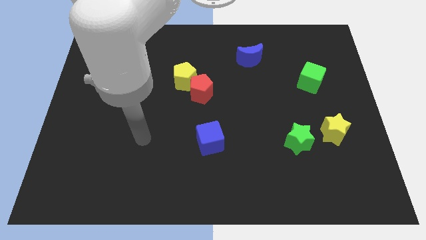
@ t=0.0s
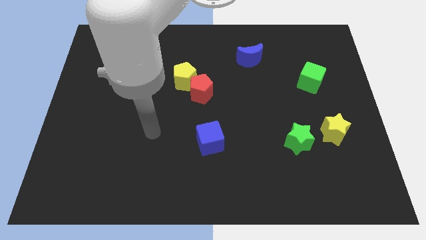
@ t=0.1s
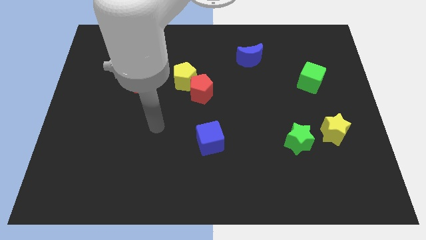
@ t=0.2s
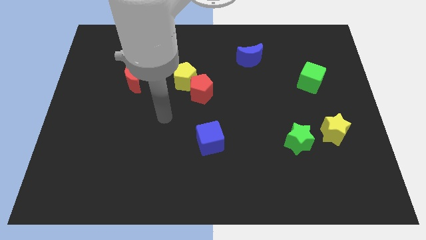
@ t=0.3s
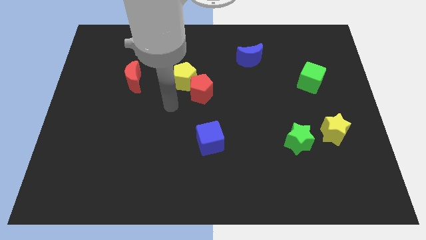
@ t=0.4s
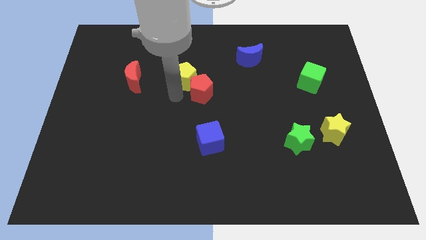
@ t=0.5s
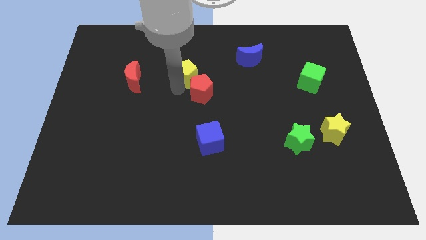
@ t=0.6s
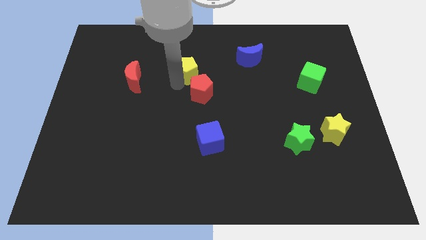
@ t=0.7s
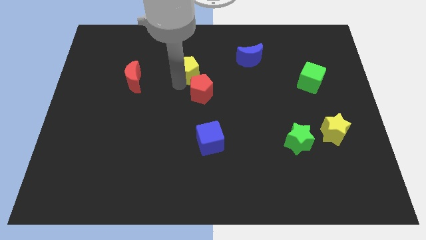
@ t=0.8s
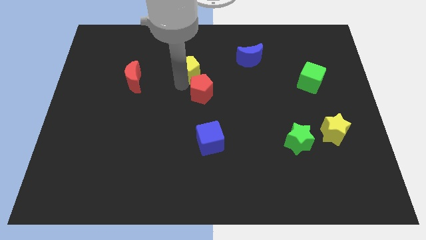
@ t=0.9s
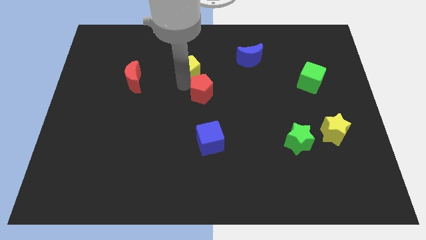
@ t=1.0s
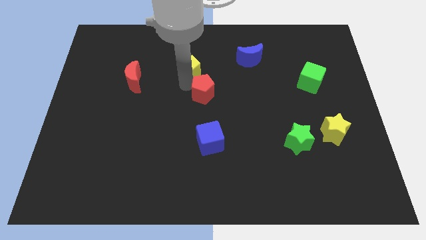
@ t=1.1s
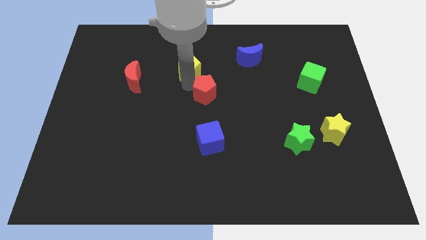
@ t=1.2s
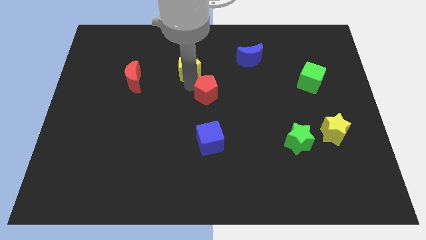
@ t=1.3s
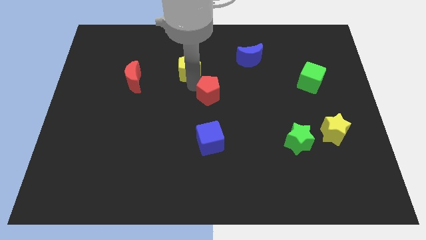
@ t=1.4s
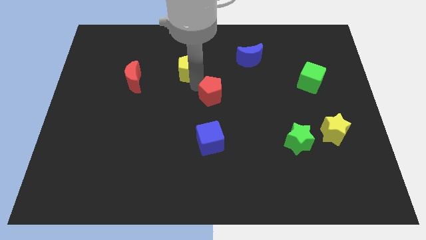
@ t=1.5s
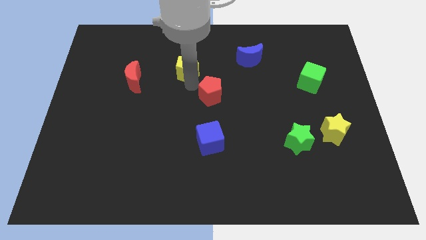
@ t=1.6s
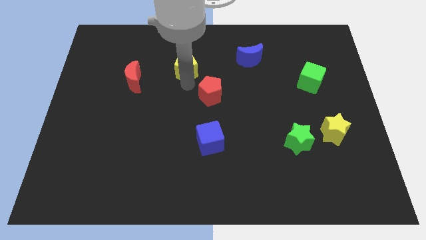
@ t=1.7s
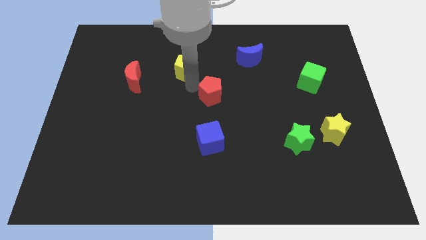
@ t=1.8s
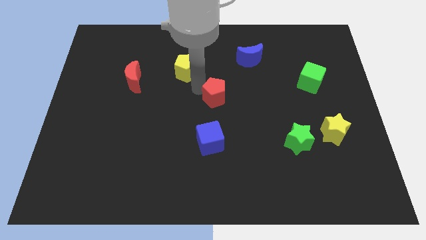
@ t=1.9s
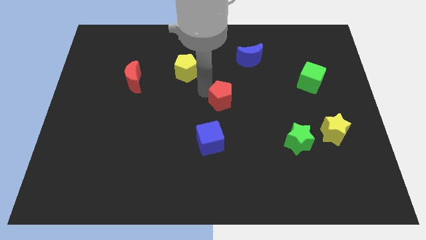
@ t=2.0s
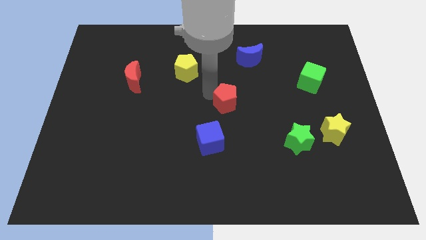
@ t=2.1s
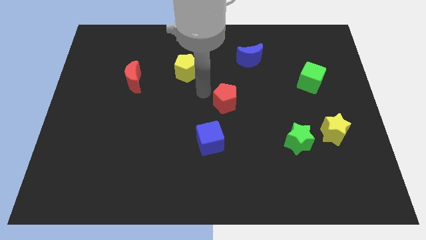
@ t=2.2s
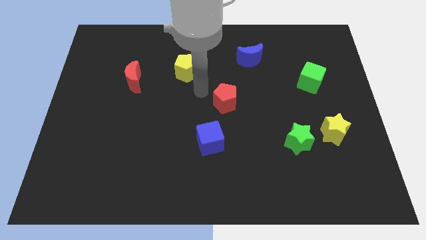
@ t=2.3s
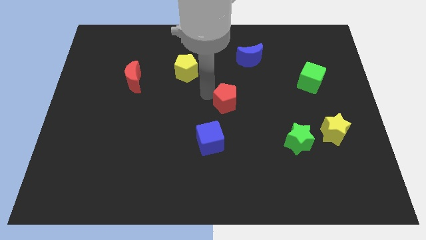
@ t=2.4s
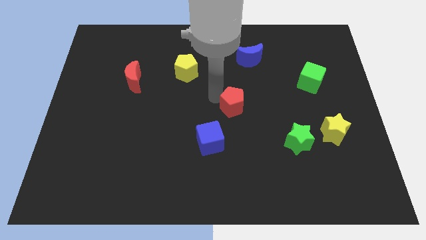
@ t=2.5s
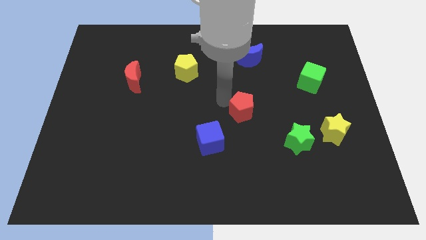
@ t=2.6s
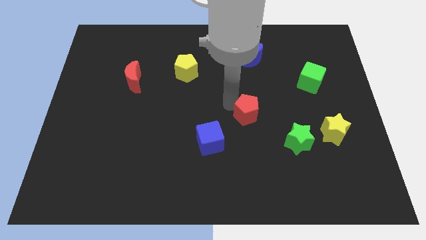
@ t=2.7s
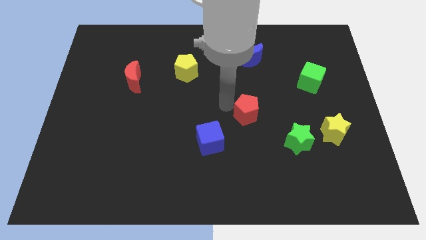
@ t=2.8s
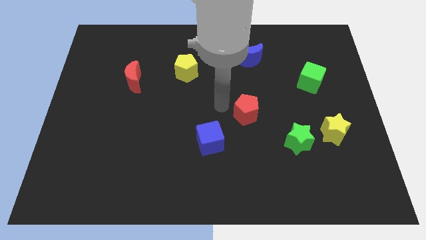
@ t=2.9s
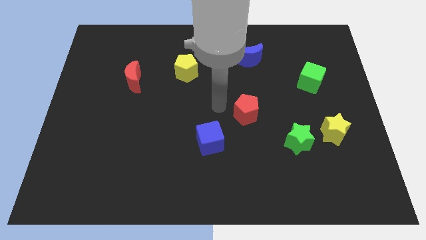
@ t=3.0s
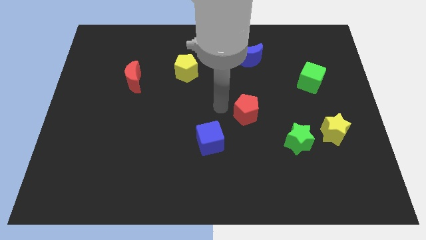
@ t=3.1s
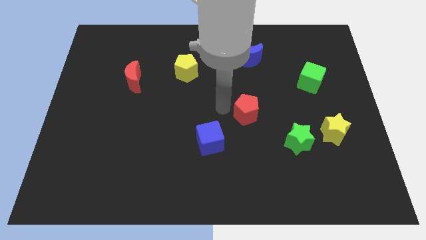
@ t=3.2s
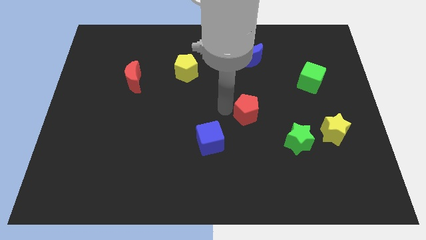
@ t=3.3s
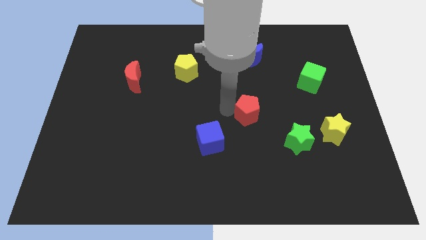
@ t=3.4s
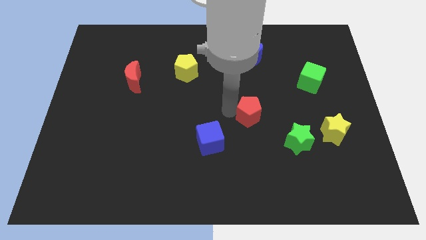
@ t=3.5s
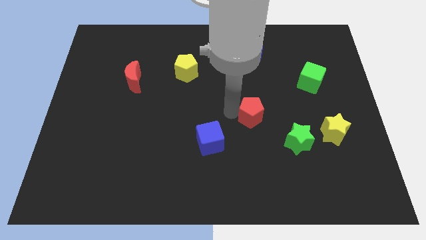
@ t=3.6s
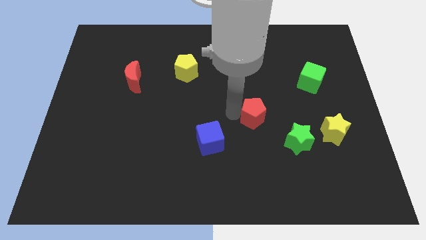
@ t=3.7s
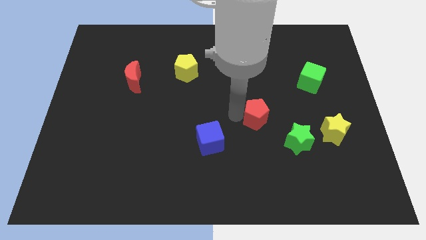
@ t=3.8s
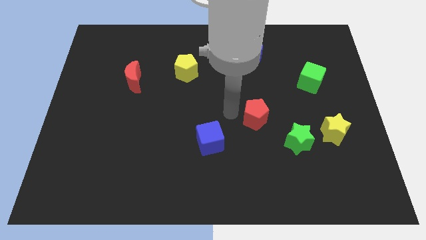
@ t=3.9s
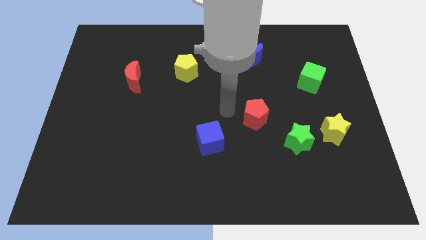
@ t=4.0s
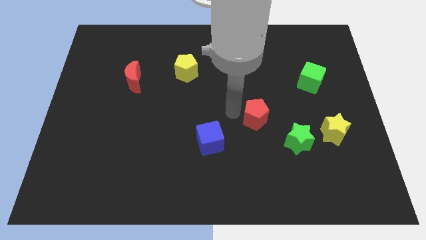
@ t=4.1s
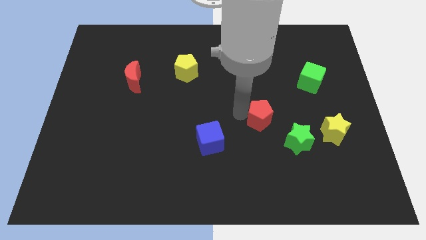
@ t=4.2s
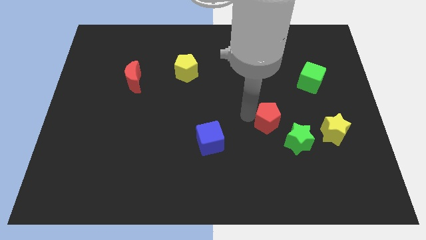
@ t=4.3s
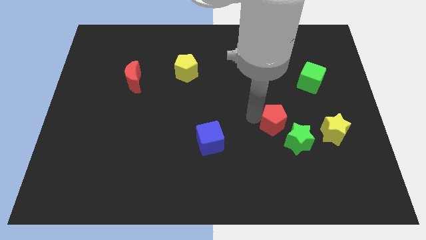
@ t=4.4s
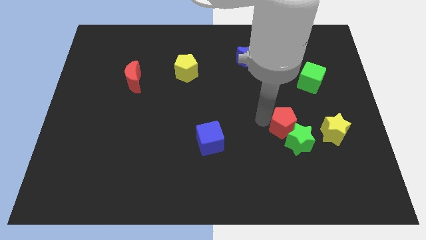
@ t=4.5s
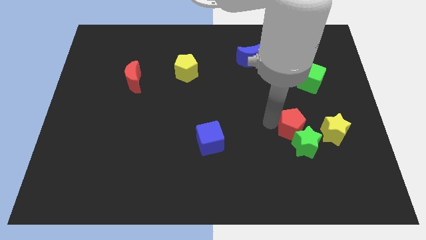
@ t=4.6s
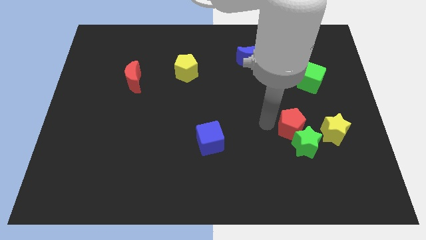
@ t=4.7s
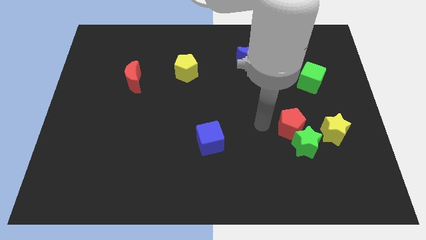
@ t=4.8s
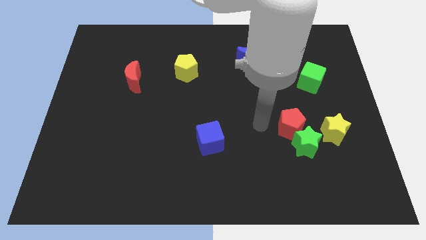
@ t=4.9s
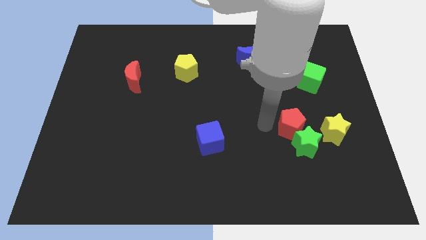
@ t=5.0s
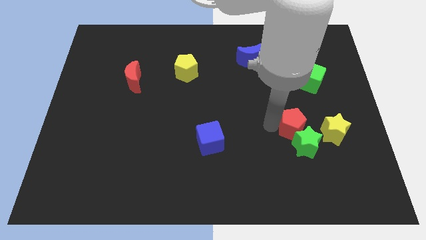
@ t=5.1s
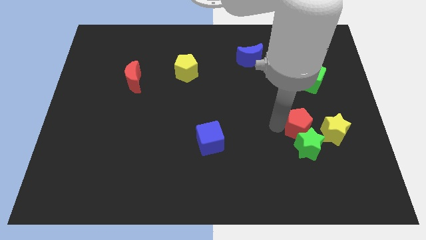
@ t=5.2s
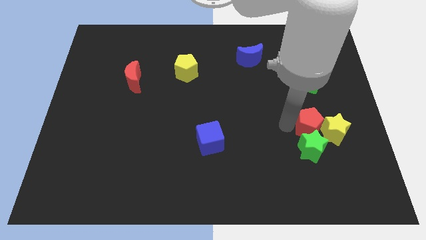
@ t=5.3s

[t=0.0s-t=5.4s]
move the red pentagon to the yellow star

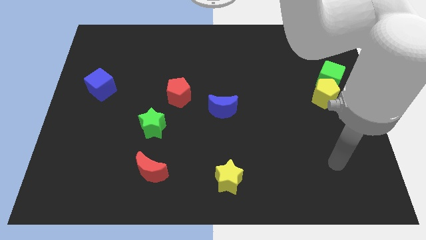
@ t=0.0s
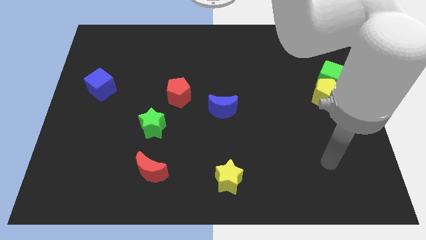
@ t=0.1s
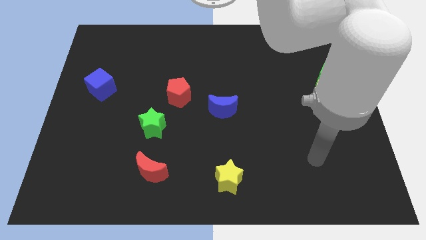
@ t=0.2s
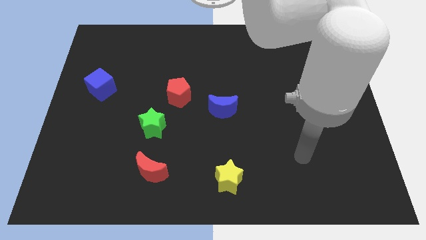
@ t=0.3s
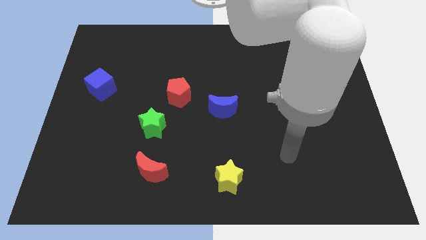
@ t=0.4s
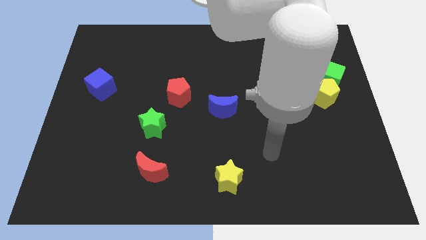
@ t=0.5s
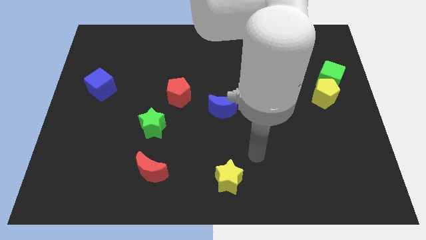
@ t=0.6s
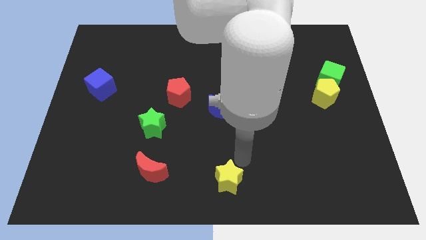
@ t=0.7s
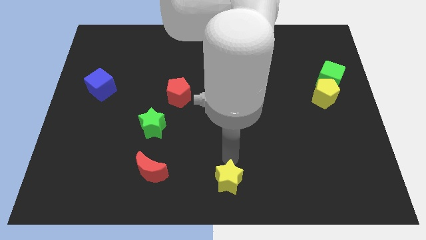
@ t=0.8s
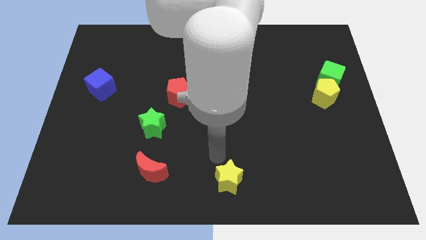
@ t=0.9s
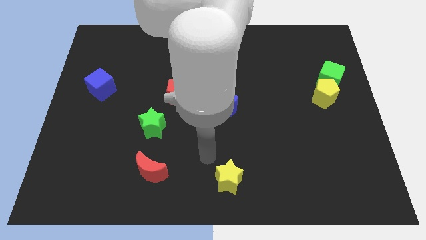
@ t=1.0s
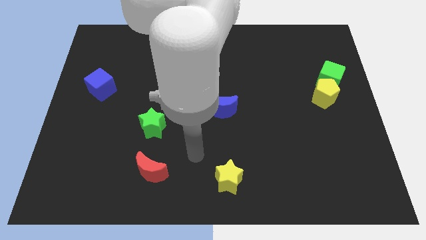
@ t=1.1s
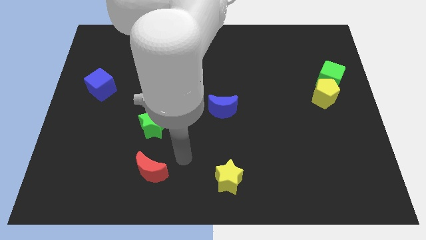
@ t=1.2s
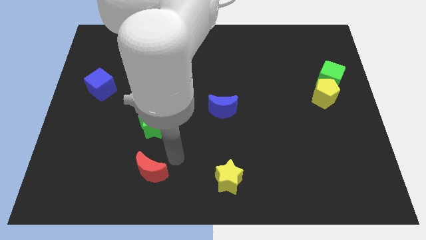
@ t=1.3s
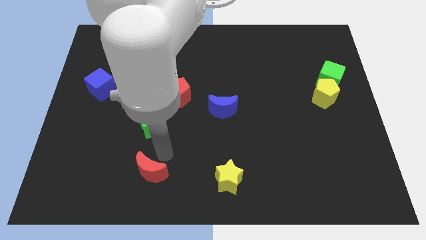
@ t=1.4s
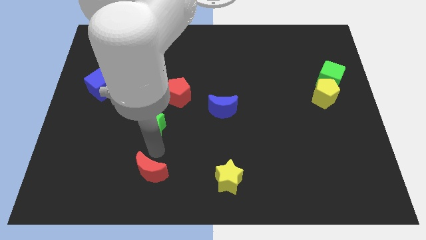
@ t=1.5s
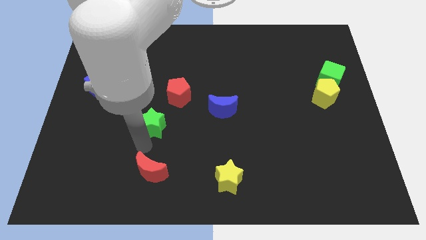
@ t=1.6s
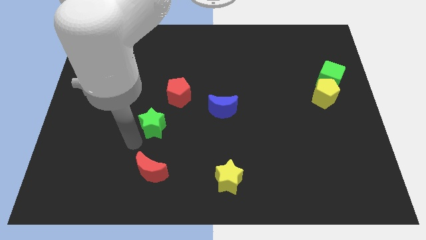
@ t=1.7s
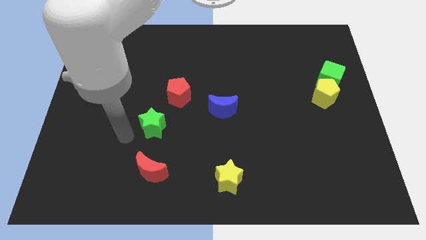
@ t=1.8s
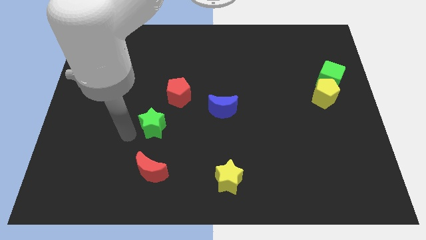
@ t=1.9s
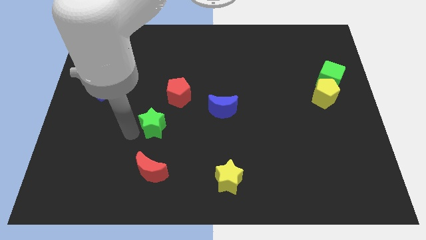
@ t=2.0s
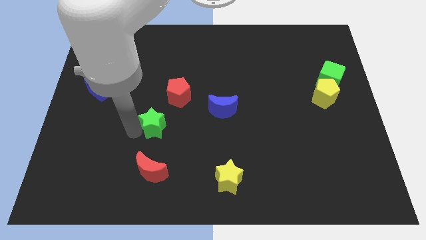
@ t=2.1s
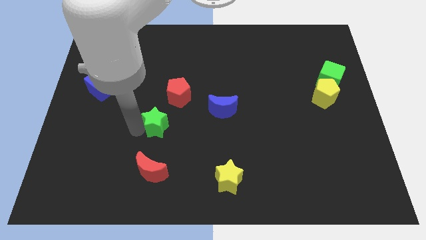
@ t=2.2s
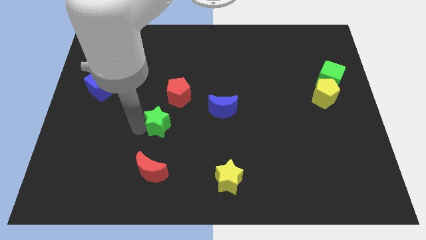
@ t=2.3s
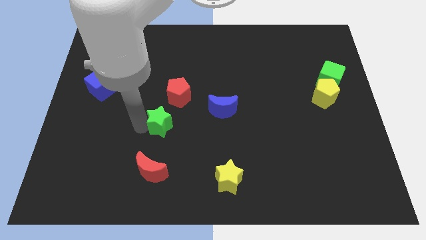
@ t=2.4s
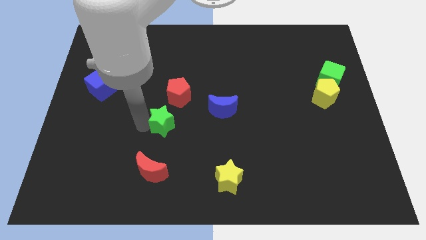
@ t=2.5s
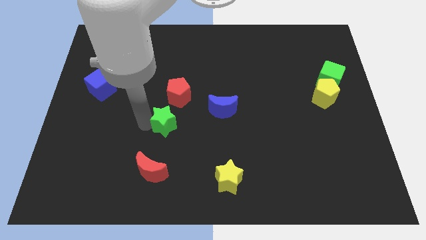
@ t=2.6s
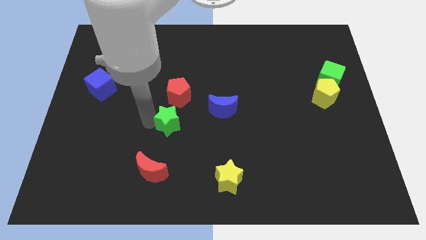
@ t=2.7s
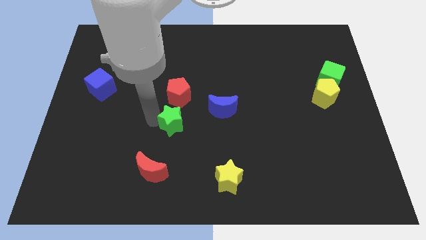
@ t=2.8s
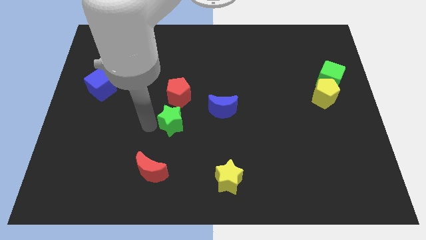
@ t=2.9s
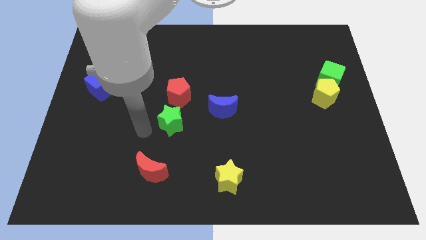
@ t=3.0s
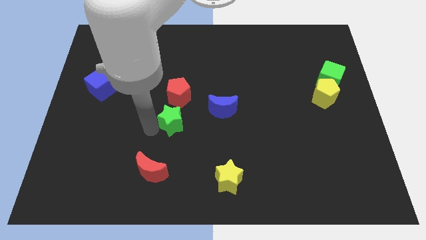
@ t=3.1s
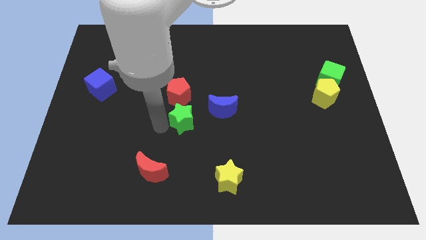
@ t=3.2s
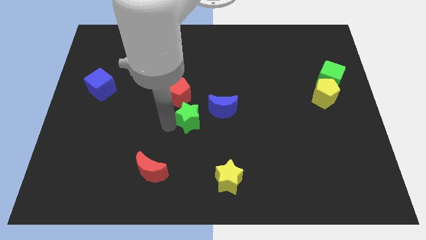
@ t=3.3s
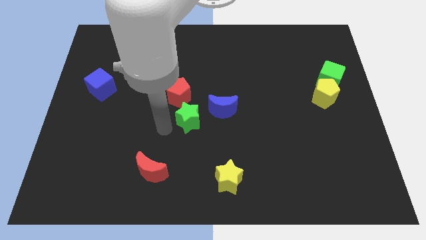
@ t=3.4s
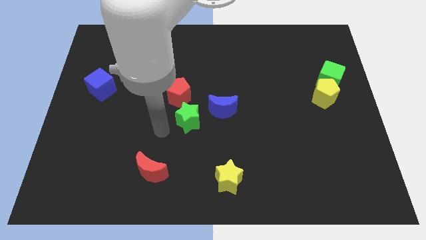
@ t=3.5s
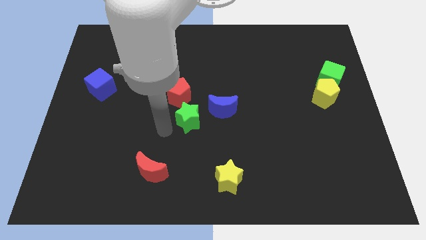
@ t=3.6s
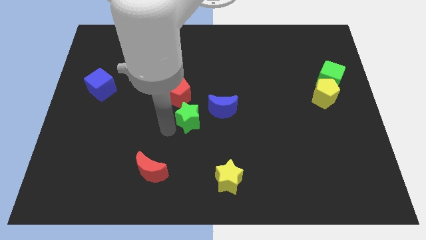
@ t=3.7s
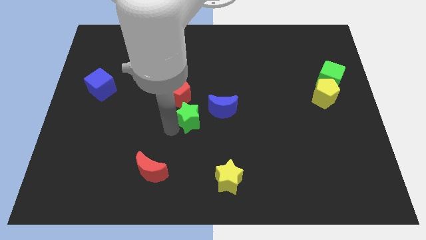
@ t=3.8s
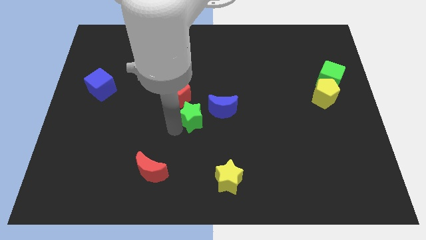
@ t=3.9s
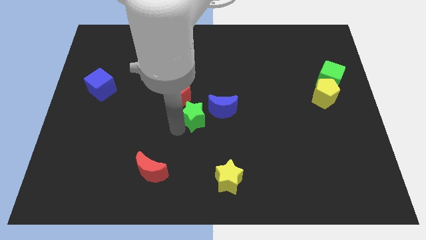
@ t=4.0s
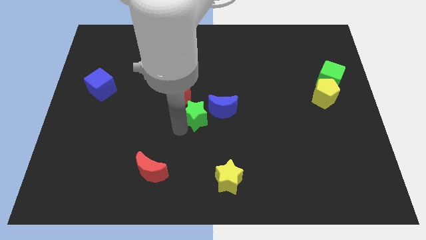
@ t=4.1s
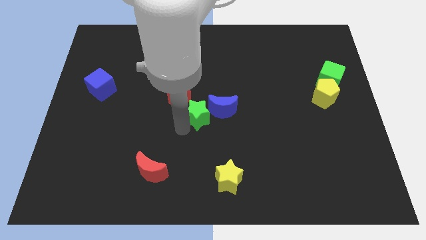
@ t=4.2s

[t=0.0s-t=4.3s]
put the green star next to the blue moon
